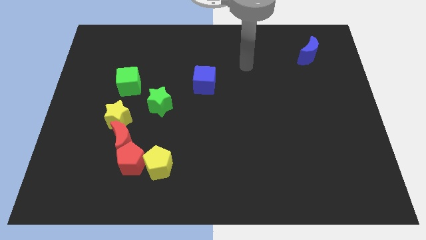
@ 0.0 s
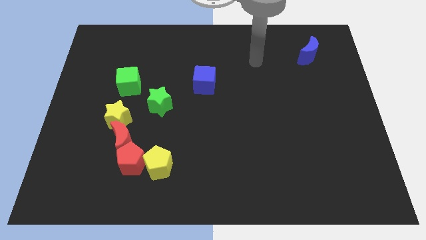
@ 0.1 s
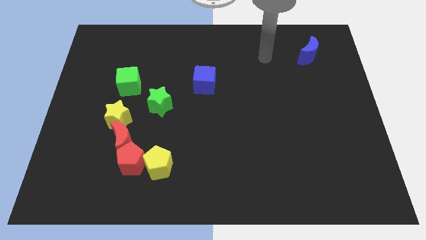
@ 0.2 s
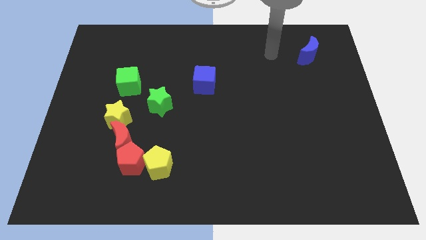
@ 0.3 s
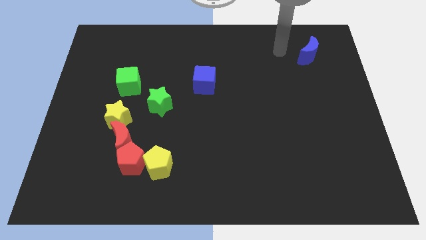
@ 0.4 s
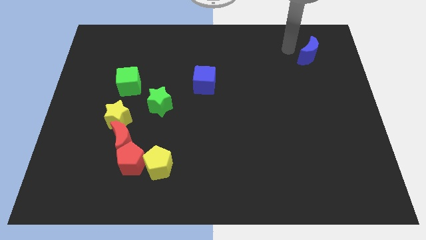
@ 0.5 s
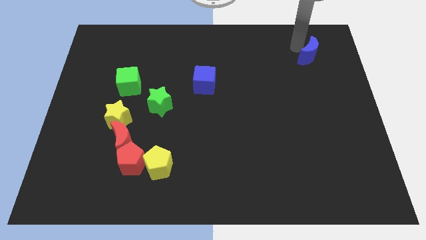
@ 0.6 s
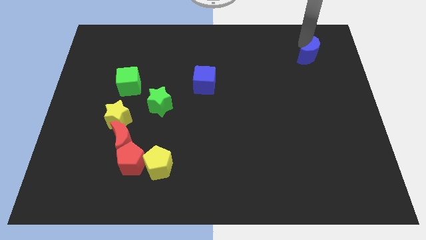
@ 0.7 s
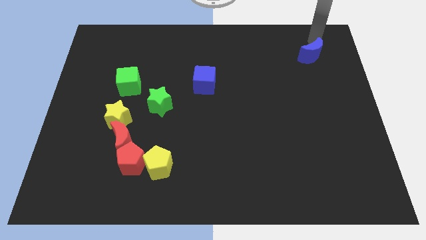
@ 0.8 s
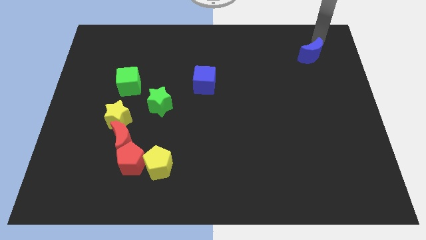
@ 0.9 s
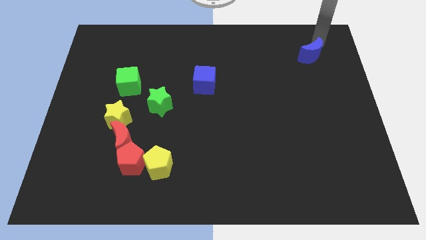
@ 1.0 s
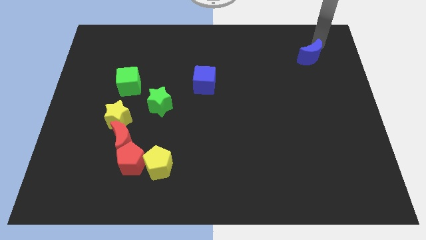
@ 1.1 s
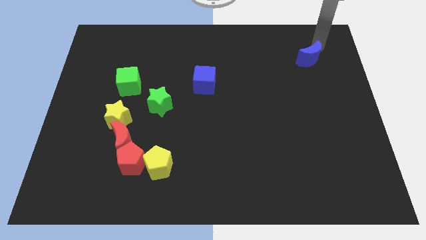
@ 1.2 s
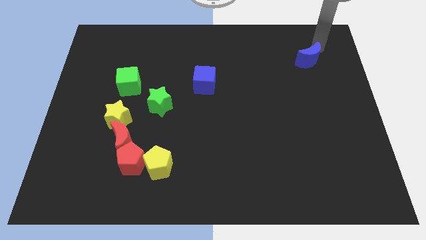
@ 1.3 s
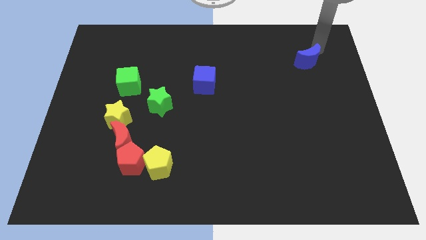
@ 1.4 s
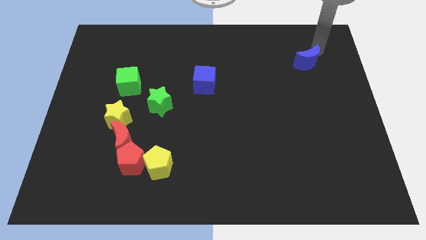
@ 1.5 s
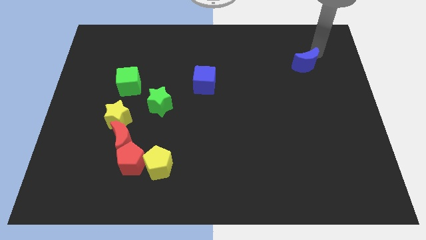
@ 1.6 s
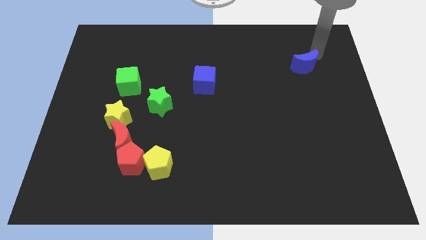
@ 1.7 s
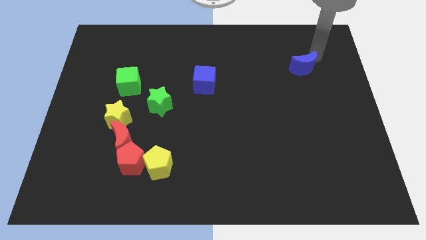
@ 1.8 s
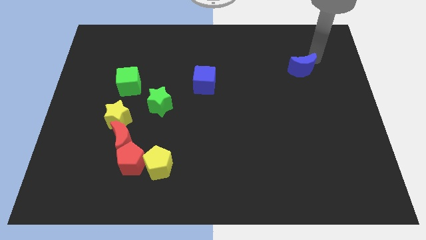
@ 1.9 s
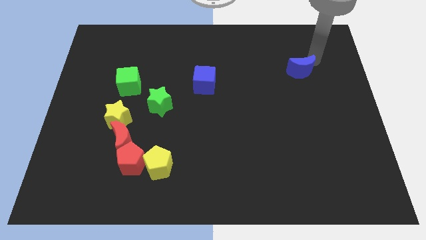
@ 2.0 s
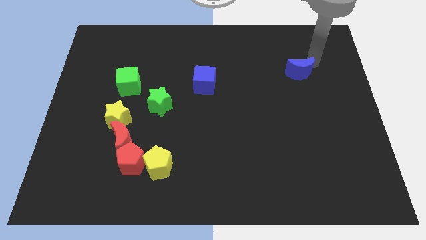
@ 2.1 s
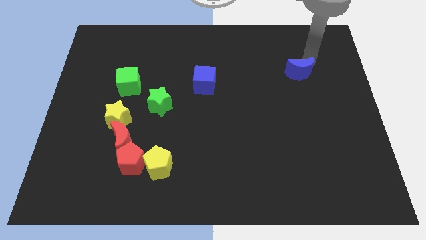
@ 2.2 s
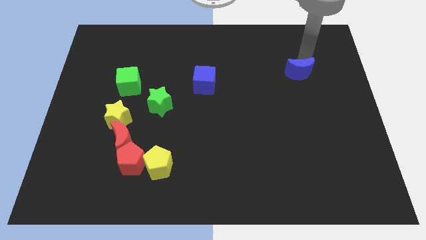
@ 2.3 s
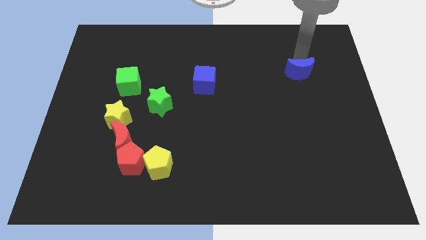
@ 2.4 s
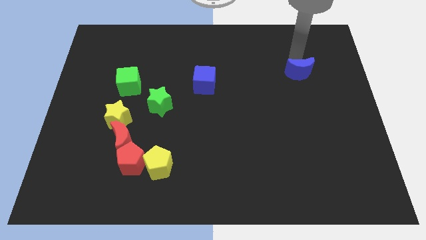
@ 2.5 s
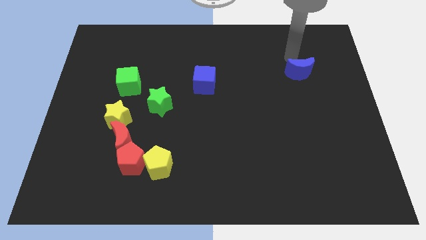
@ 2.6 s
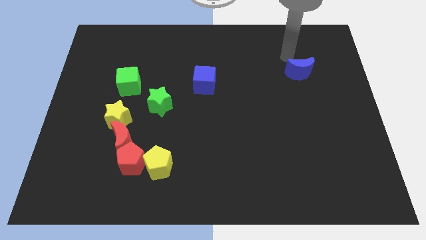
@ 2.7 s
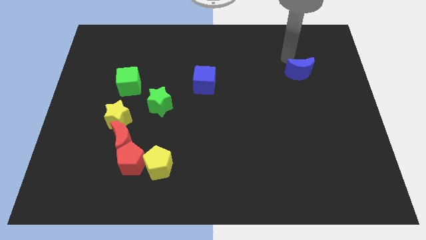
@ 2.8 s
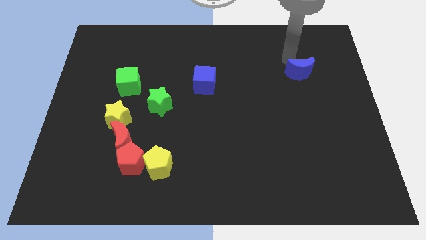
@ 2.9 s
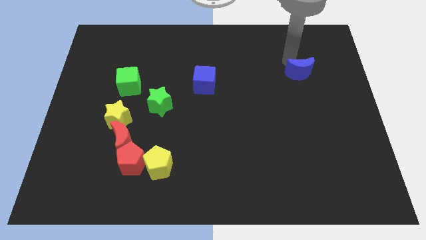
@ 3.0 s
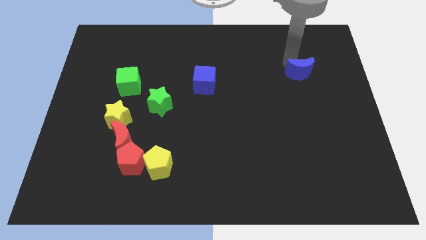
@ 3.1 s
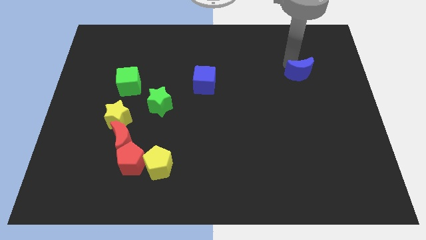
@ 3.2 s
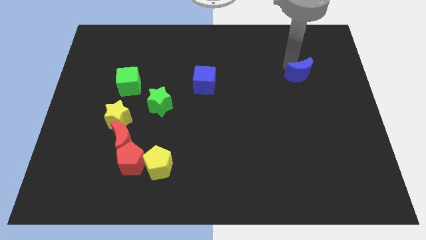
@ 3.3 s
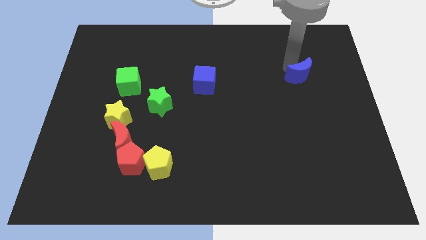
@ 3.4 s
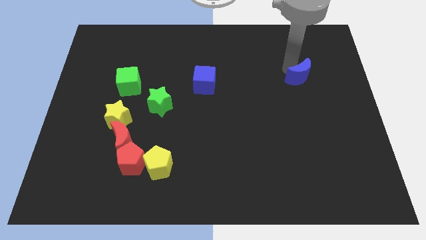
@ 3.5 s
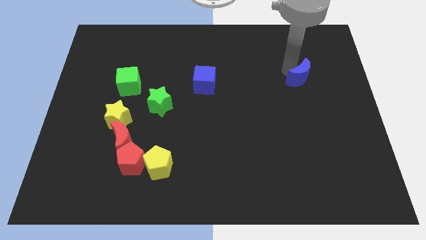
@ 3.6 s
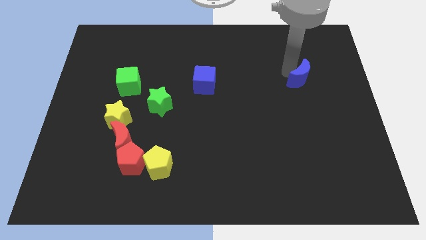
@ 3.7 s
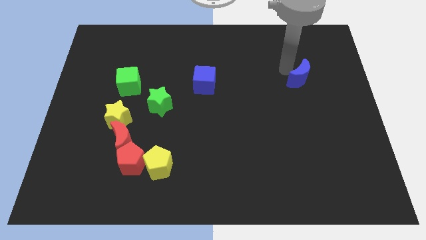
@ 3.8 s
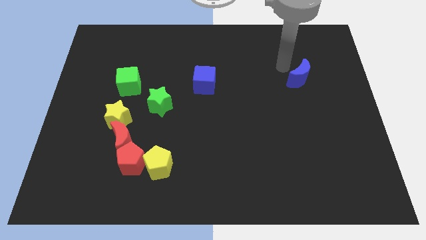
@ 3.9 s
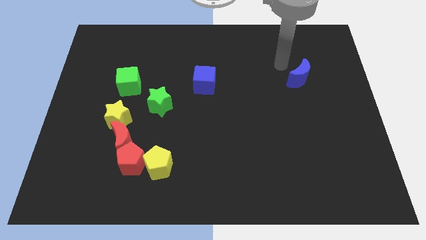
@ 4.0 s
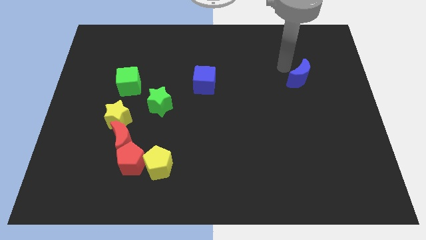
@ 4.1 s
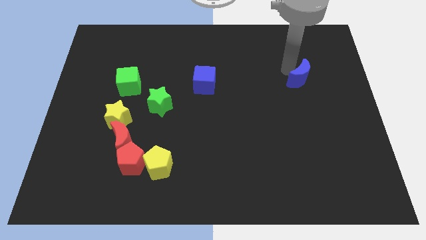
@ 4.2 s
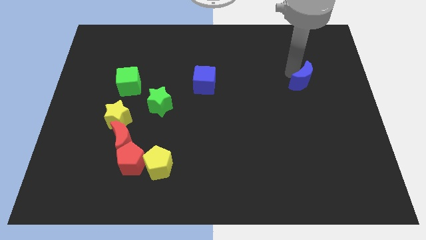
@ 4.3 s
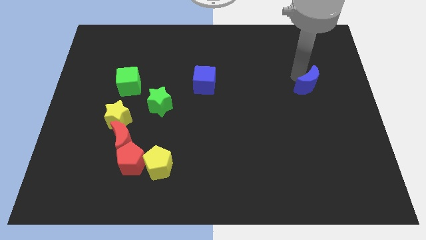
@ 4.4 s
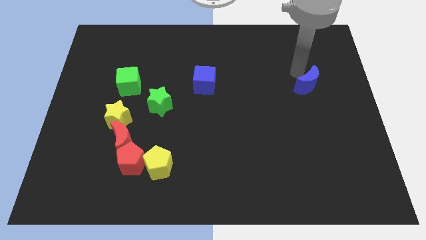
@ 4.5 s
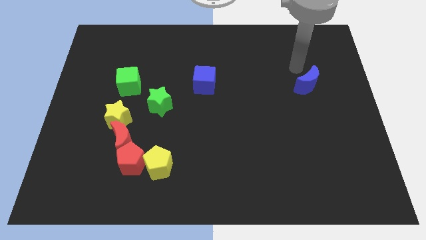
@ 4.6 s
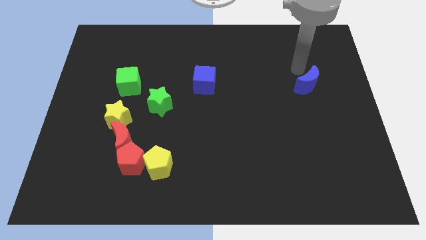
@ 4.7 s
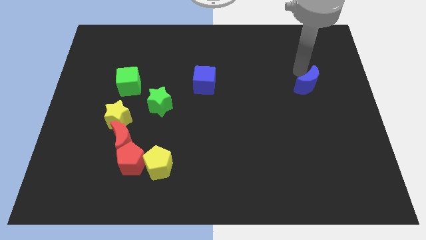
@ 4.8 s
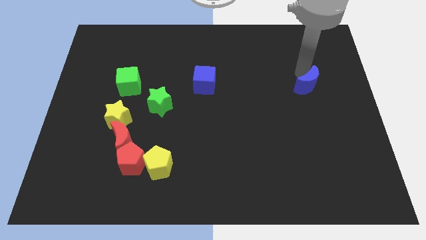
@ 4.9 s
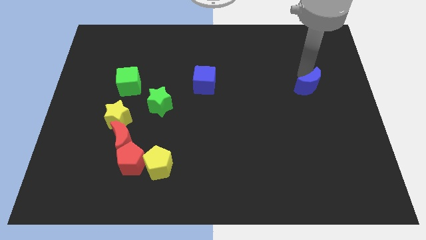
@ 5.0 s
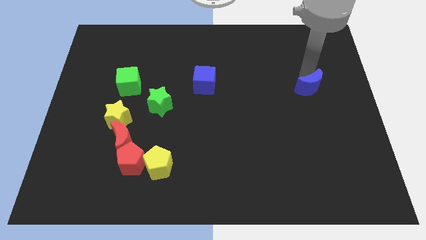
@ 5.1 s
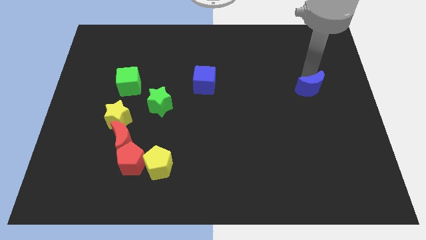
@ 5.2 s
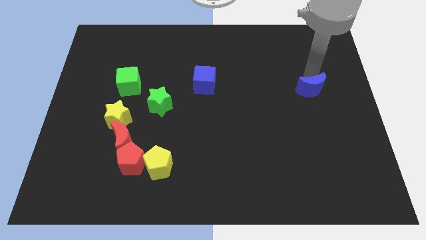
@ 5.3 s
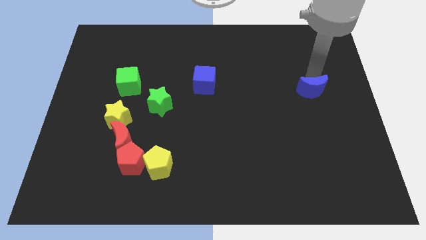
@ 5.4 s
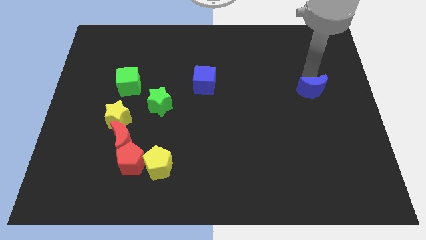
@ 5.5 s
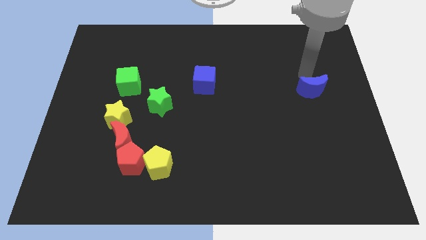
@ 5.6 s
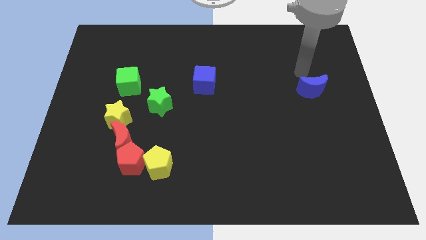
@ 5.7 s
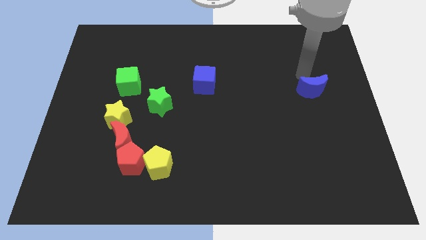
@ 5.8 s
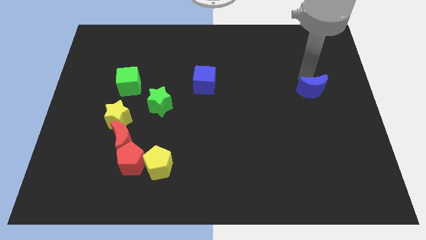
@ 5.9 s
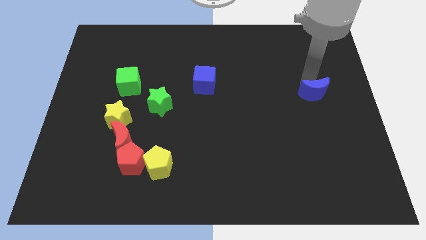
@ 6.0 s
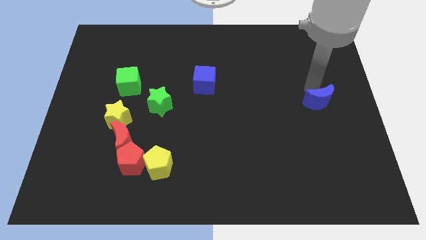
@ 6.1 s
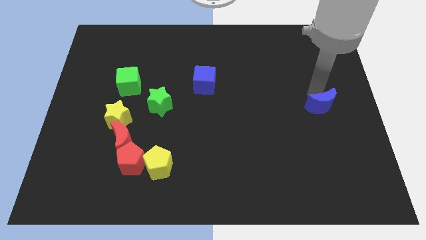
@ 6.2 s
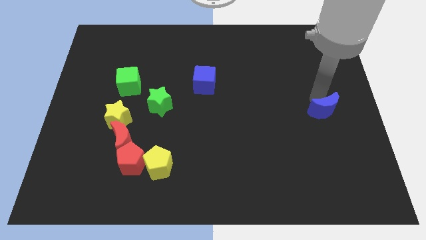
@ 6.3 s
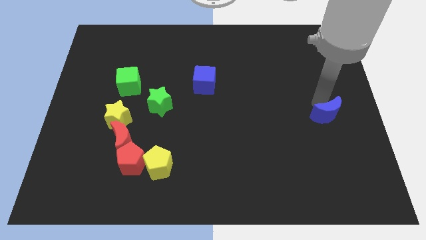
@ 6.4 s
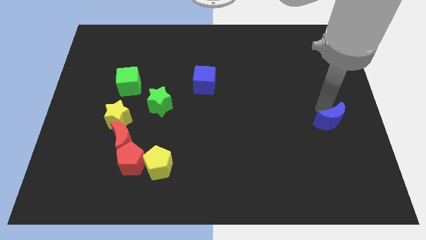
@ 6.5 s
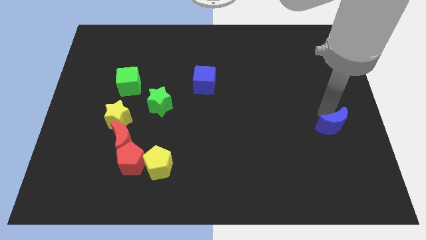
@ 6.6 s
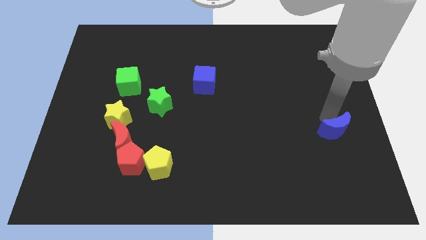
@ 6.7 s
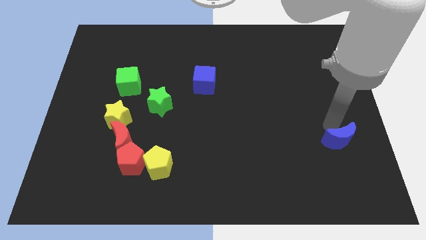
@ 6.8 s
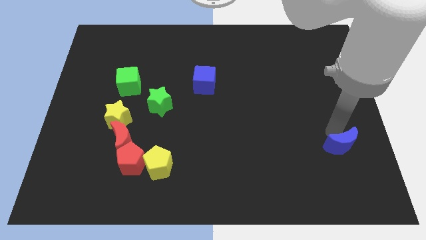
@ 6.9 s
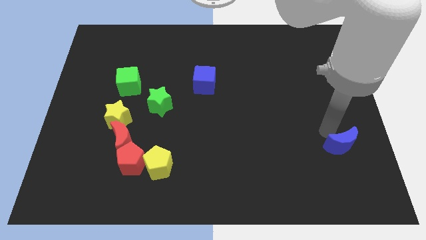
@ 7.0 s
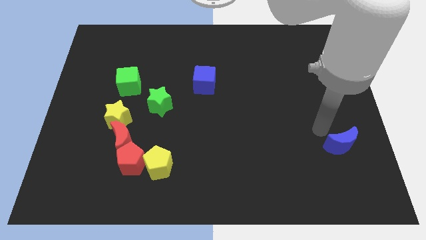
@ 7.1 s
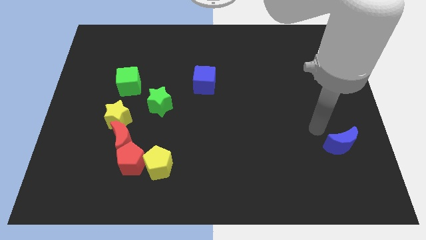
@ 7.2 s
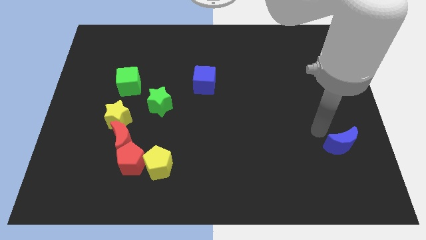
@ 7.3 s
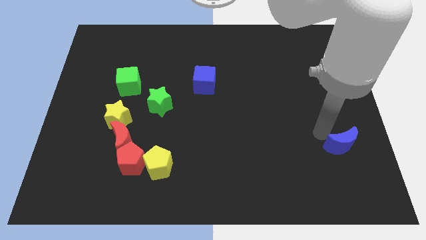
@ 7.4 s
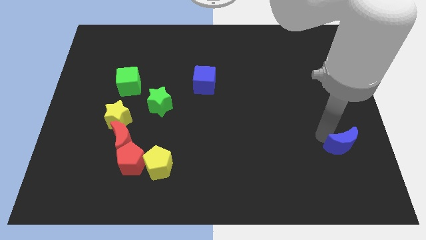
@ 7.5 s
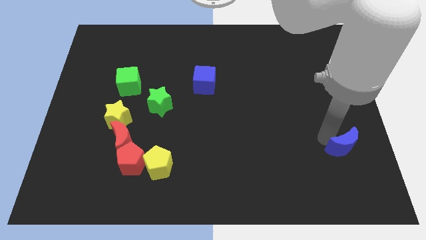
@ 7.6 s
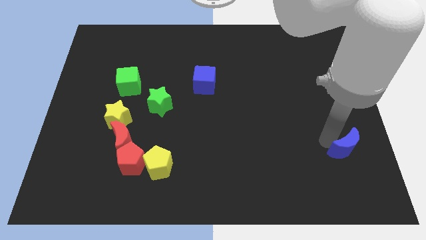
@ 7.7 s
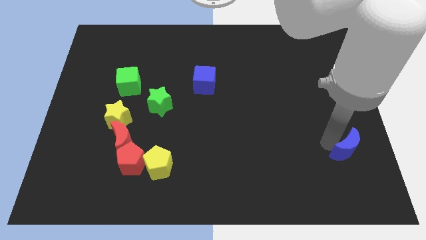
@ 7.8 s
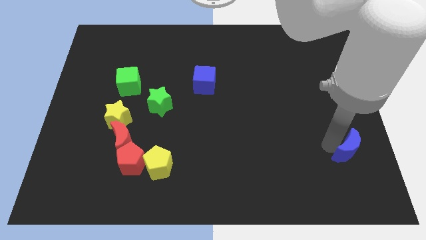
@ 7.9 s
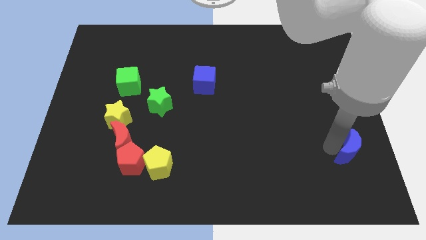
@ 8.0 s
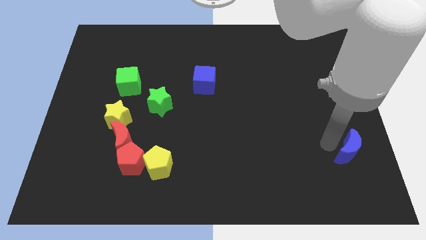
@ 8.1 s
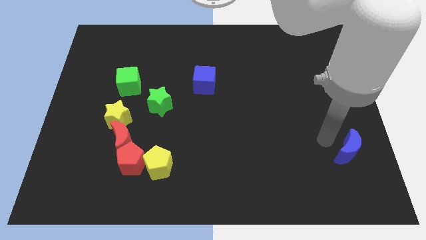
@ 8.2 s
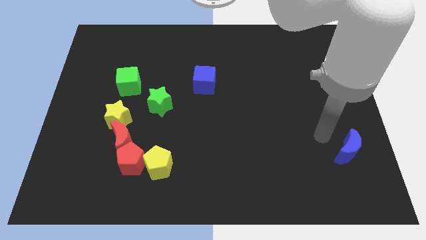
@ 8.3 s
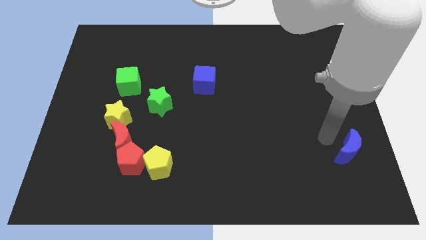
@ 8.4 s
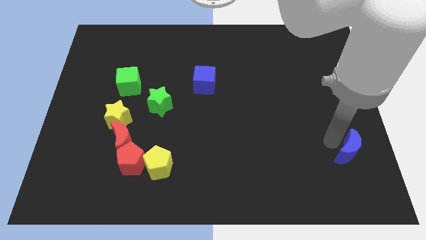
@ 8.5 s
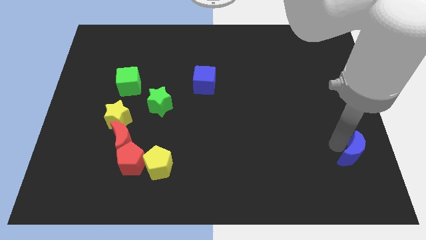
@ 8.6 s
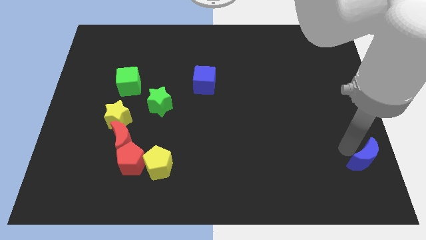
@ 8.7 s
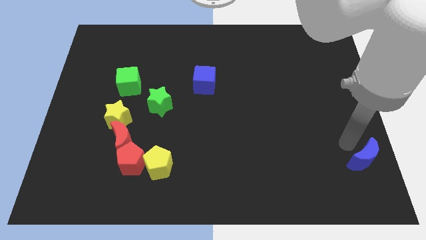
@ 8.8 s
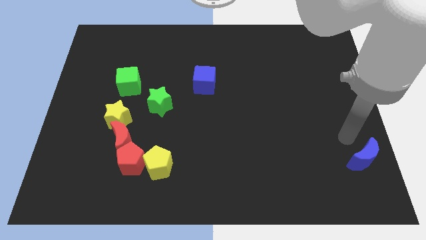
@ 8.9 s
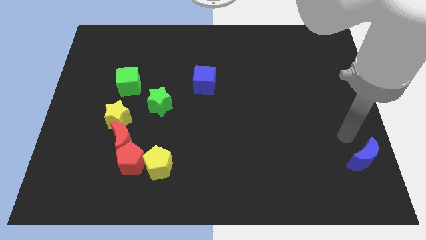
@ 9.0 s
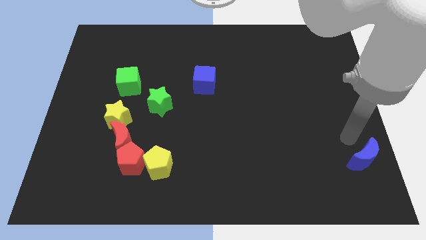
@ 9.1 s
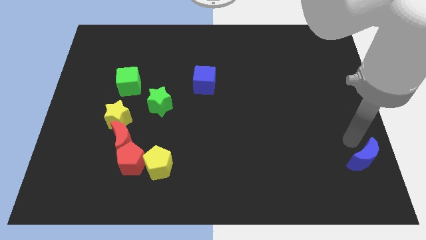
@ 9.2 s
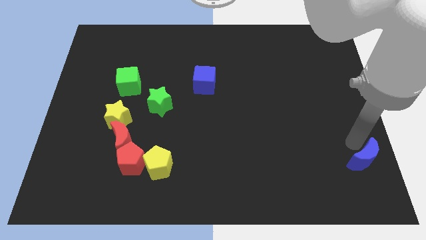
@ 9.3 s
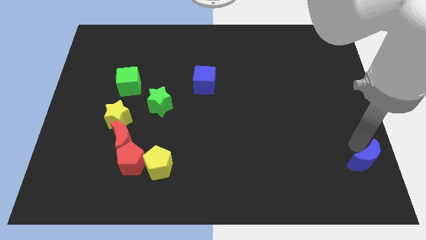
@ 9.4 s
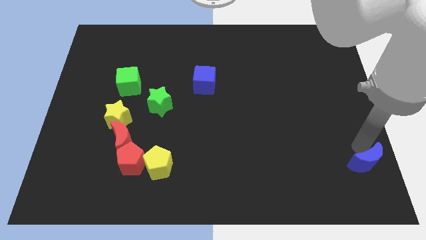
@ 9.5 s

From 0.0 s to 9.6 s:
push the blue moon to the bottom right
